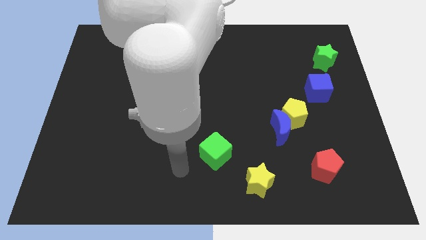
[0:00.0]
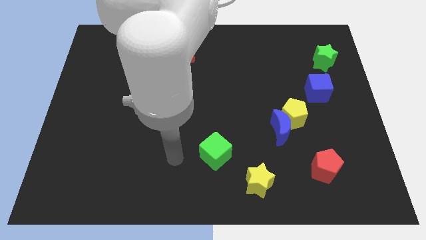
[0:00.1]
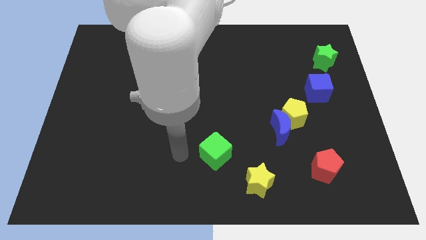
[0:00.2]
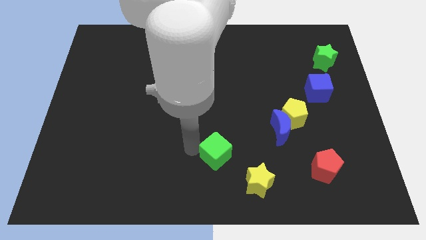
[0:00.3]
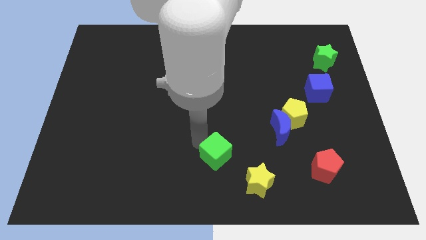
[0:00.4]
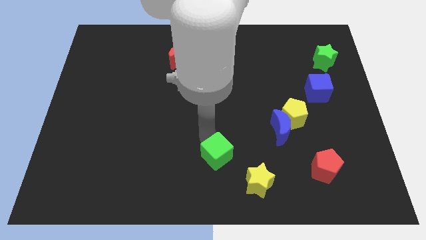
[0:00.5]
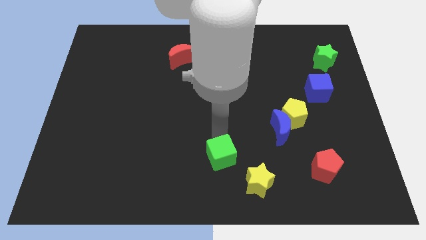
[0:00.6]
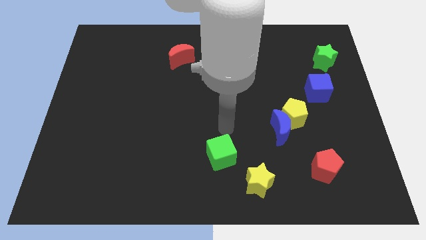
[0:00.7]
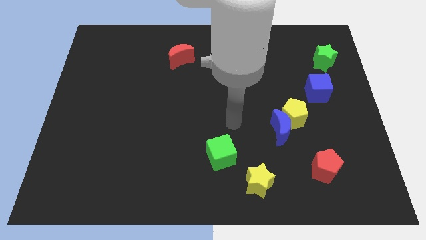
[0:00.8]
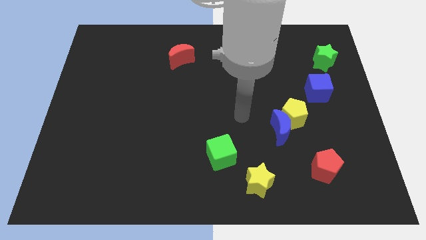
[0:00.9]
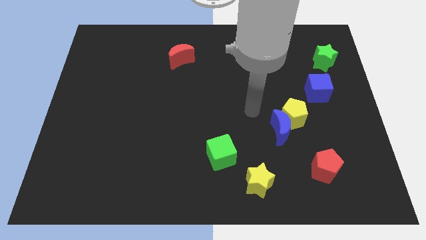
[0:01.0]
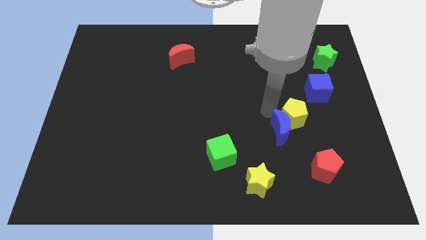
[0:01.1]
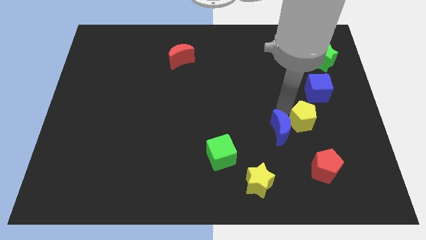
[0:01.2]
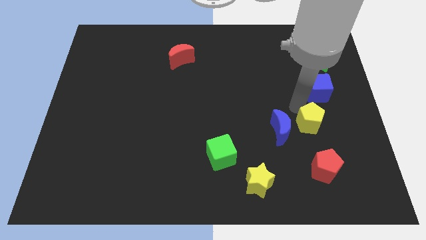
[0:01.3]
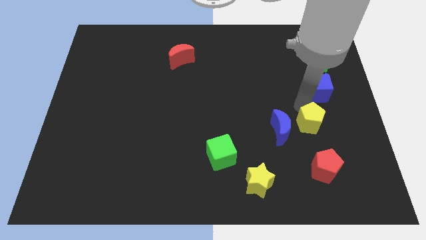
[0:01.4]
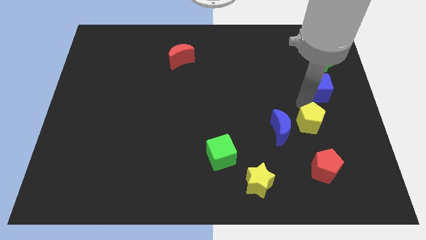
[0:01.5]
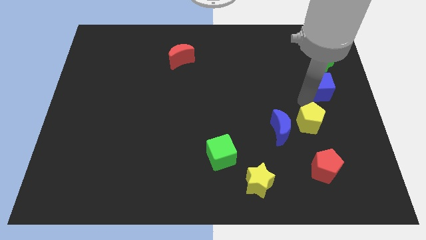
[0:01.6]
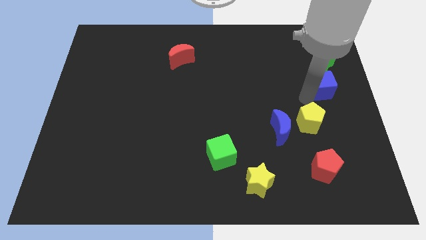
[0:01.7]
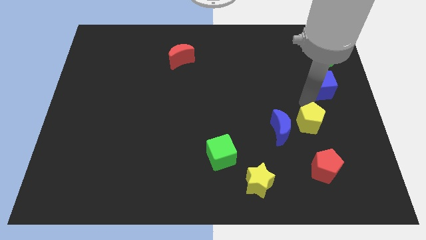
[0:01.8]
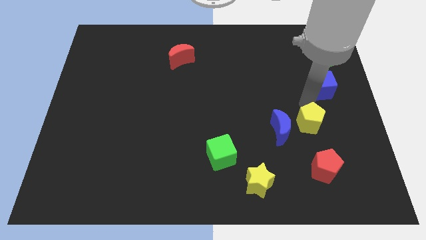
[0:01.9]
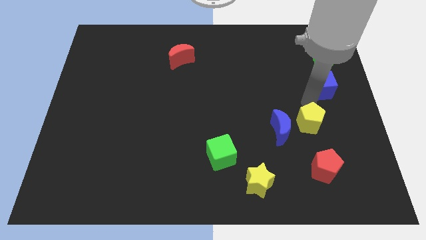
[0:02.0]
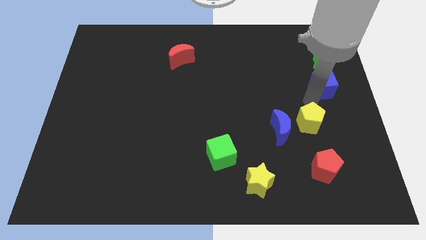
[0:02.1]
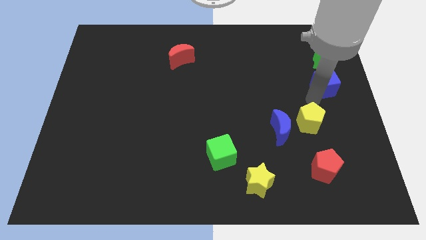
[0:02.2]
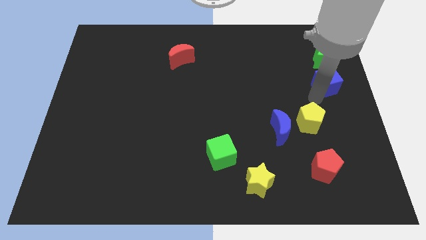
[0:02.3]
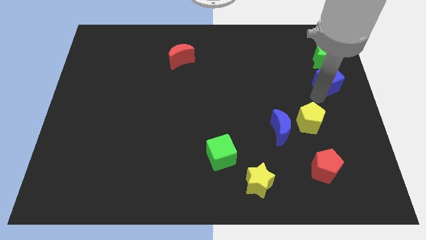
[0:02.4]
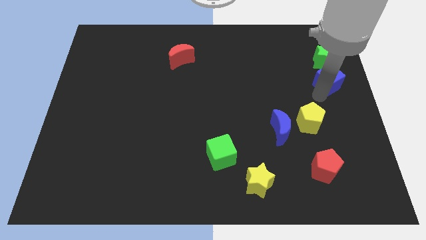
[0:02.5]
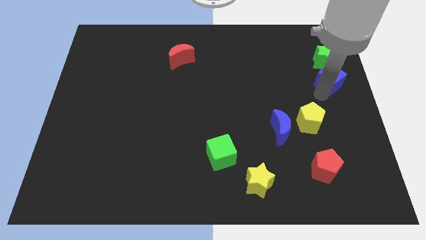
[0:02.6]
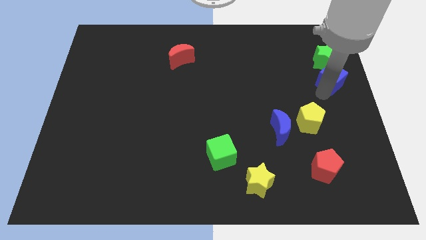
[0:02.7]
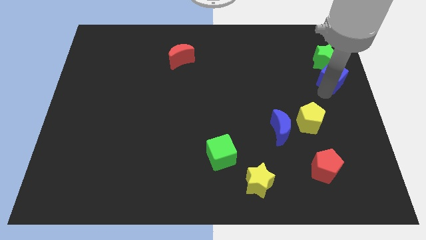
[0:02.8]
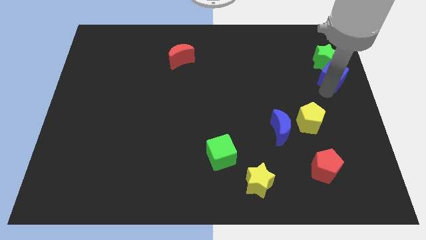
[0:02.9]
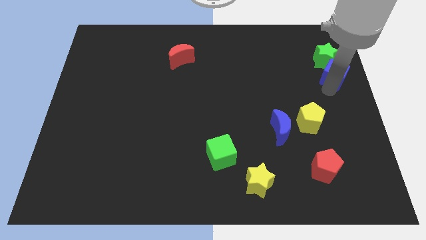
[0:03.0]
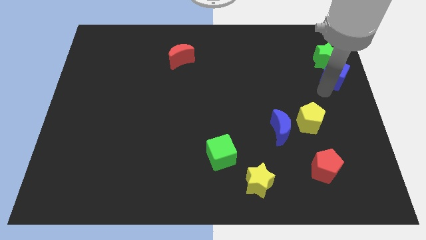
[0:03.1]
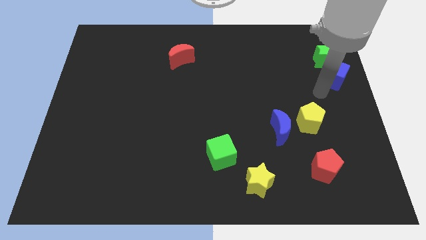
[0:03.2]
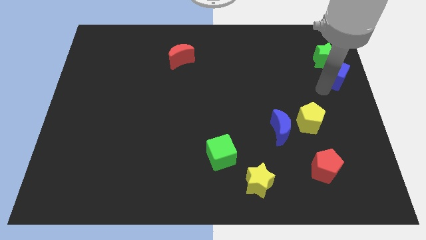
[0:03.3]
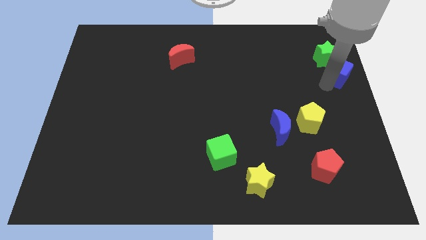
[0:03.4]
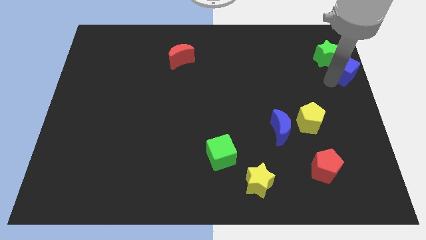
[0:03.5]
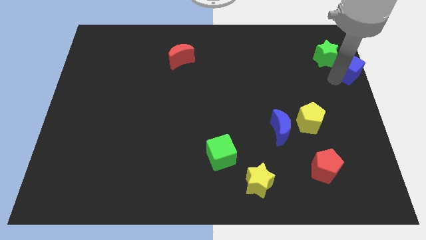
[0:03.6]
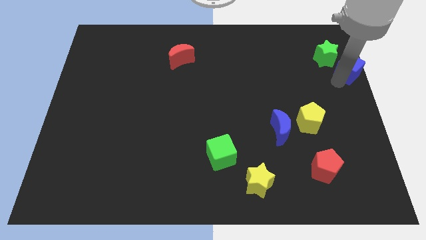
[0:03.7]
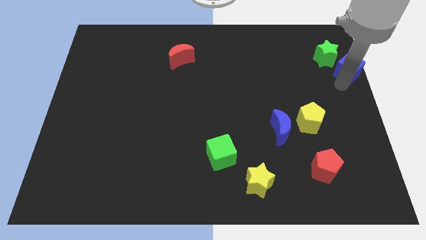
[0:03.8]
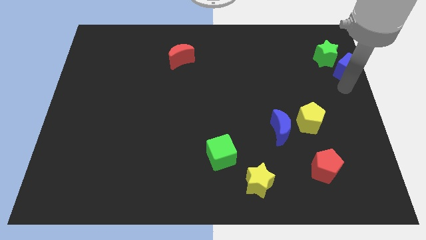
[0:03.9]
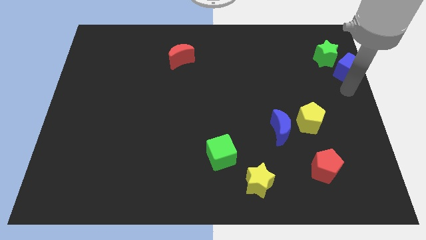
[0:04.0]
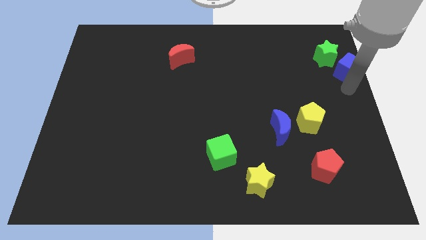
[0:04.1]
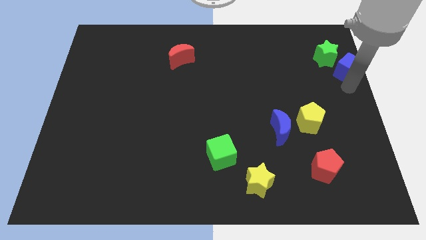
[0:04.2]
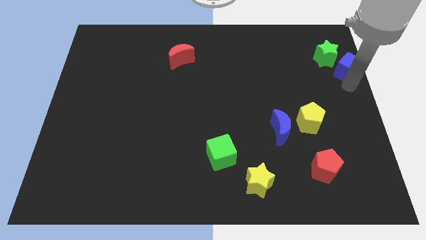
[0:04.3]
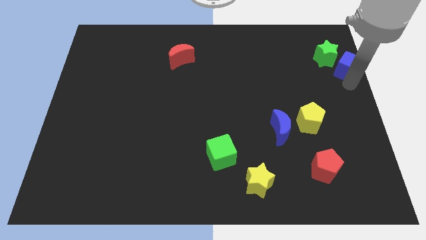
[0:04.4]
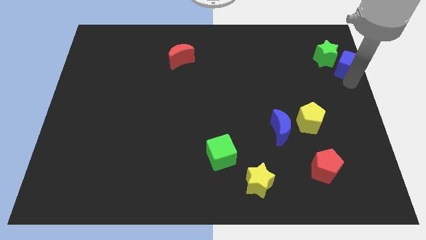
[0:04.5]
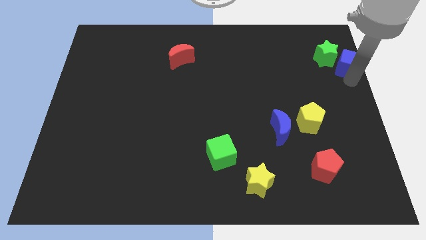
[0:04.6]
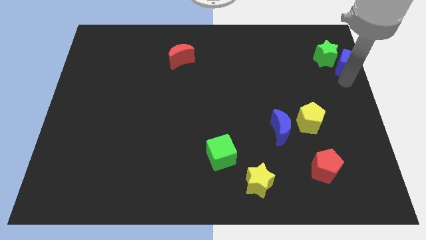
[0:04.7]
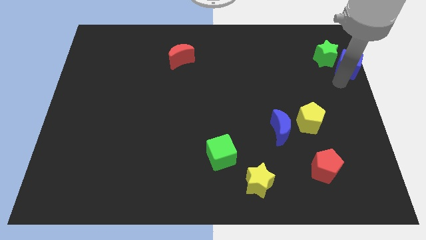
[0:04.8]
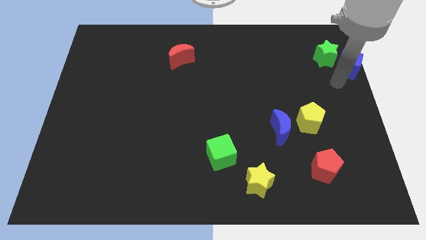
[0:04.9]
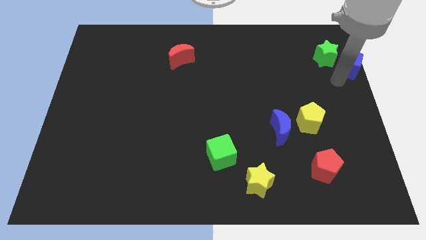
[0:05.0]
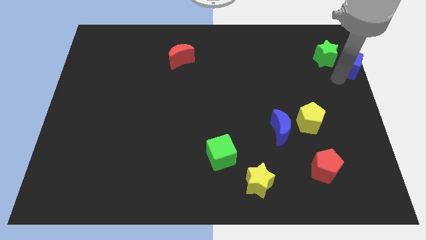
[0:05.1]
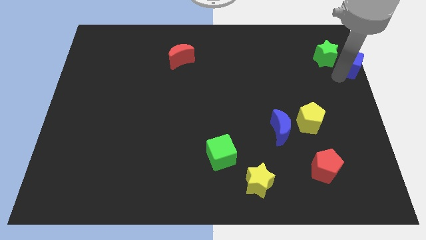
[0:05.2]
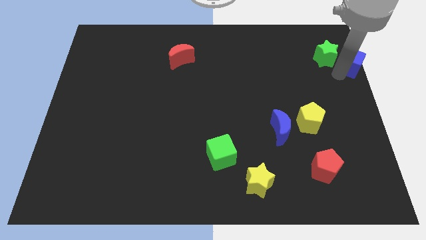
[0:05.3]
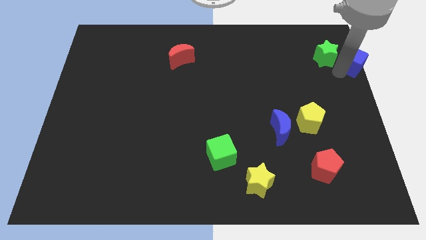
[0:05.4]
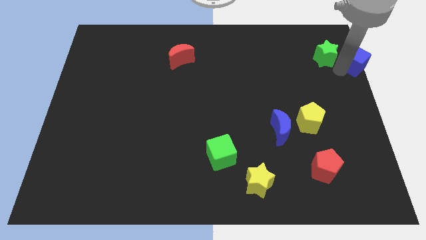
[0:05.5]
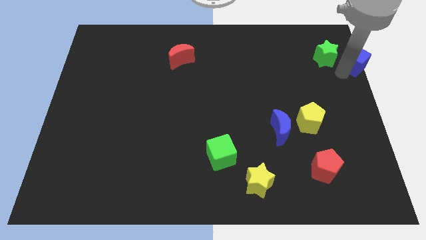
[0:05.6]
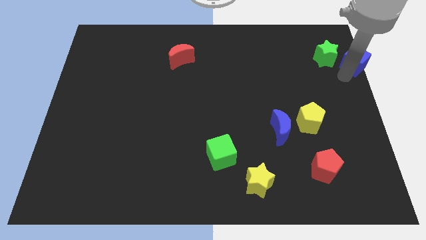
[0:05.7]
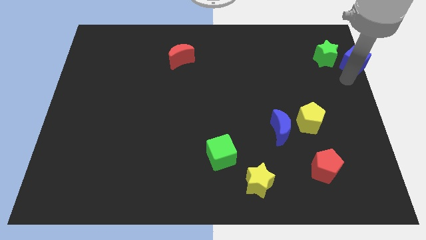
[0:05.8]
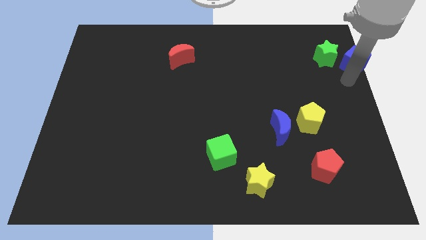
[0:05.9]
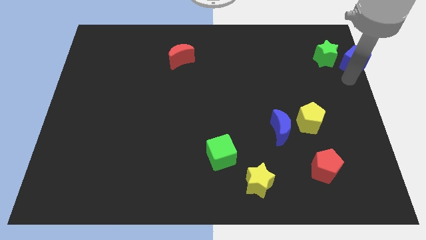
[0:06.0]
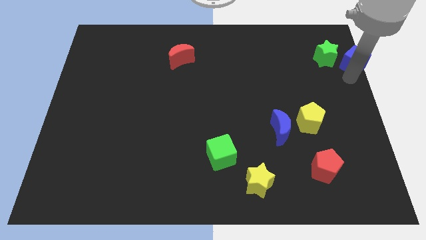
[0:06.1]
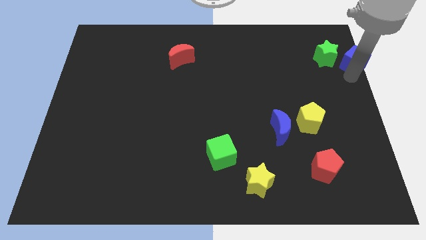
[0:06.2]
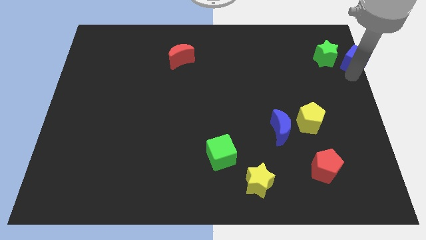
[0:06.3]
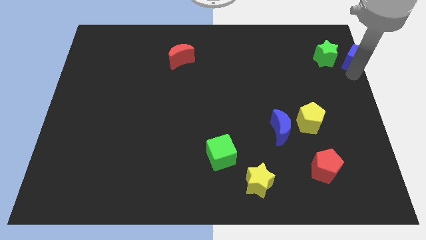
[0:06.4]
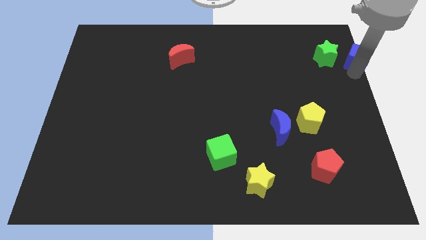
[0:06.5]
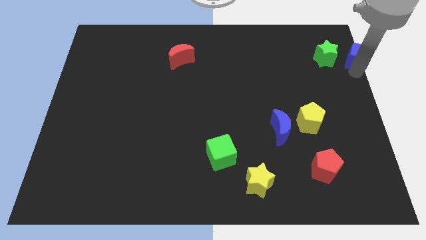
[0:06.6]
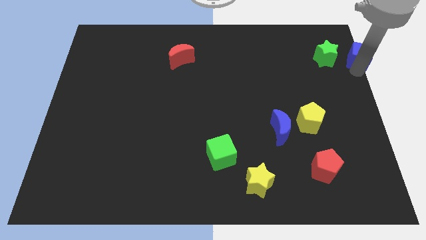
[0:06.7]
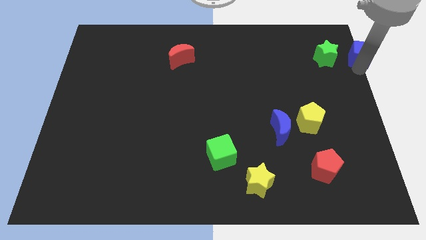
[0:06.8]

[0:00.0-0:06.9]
put the blue cube to the upper right corner
